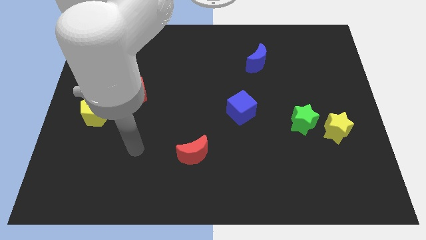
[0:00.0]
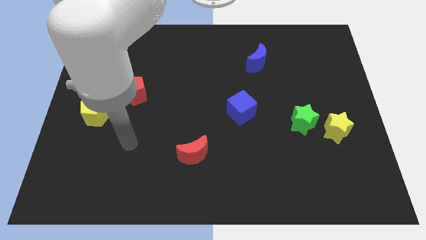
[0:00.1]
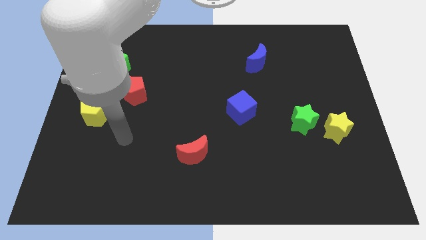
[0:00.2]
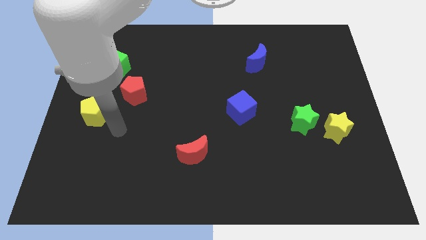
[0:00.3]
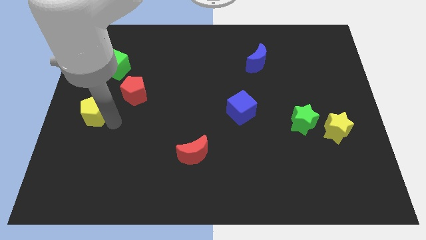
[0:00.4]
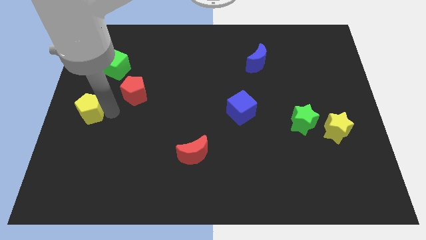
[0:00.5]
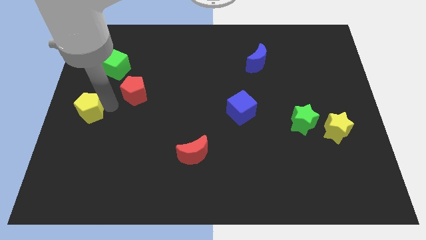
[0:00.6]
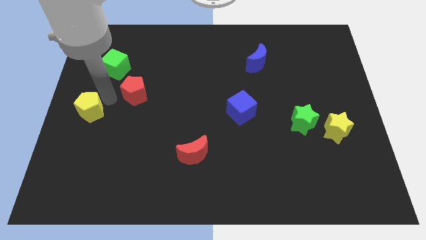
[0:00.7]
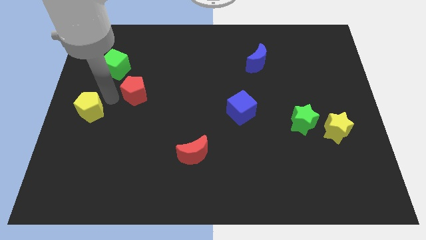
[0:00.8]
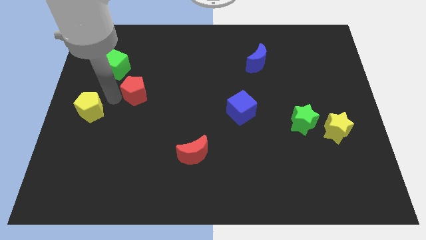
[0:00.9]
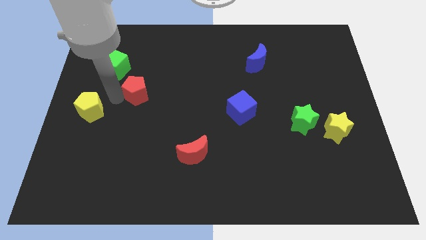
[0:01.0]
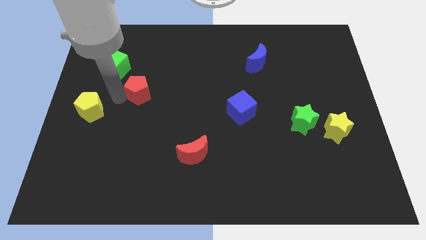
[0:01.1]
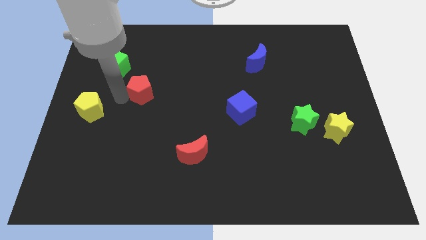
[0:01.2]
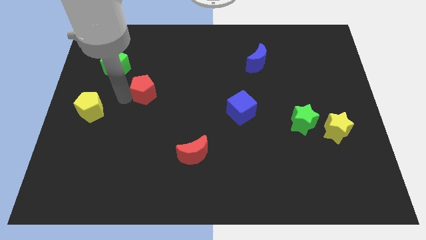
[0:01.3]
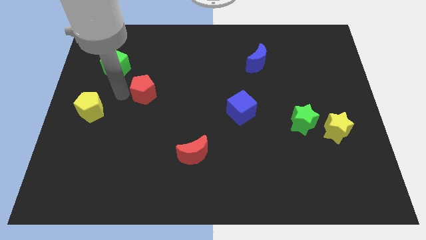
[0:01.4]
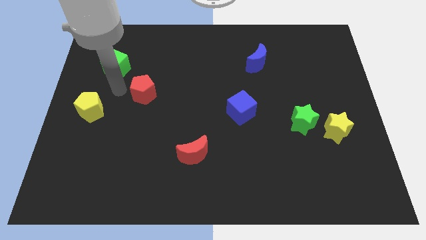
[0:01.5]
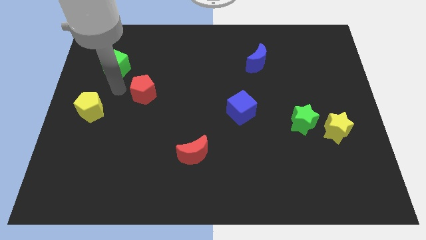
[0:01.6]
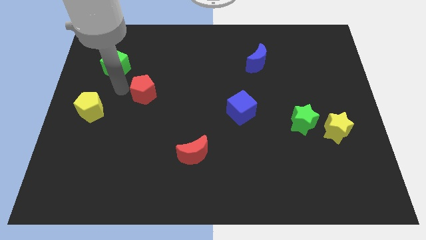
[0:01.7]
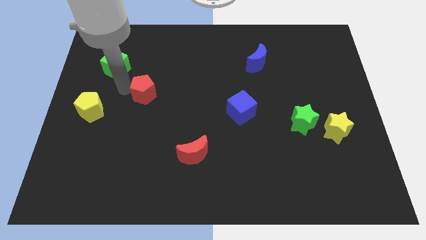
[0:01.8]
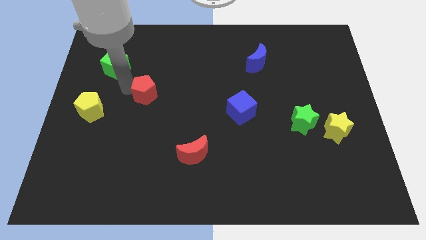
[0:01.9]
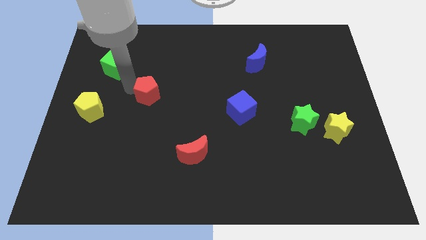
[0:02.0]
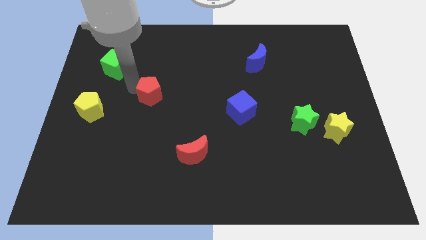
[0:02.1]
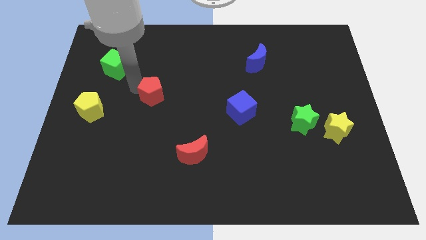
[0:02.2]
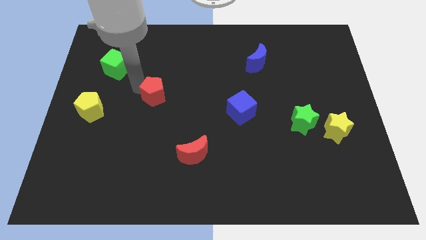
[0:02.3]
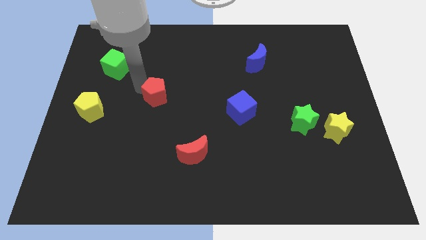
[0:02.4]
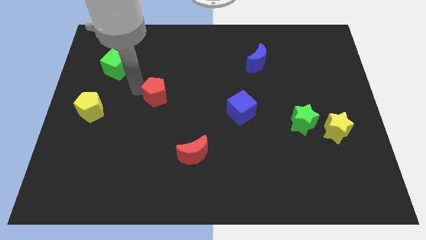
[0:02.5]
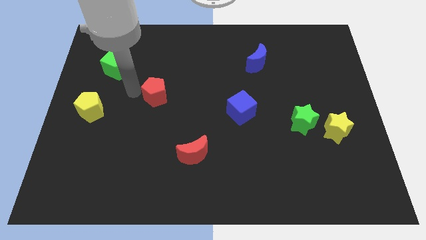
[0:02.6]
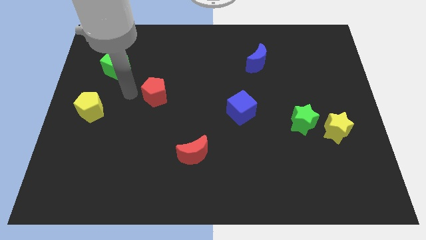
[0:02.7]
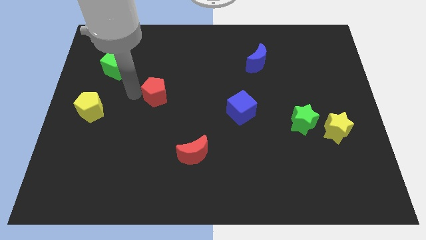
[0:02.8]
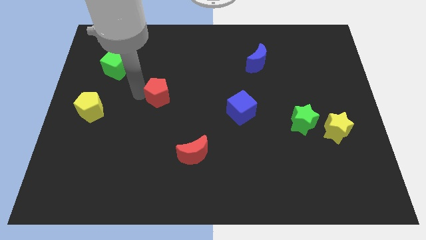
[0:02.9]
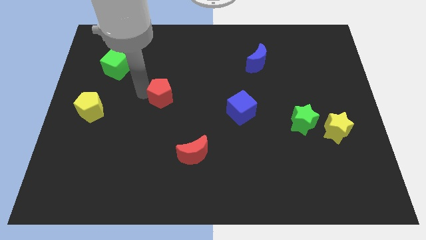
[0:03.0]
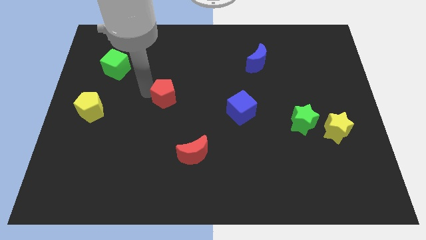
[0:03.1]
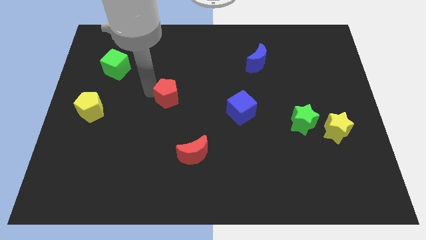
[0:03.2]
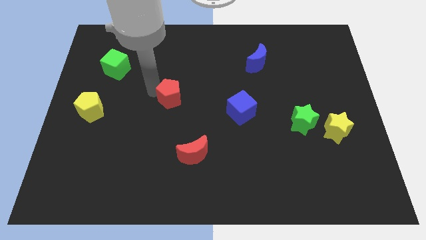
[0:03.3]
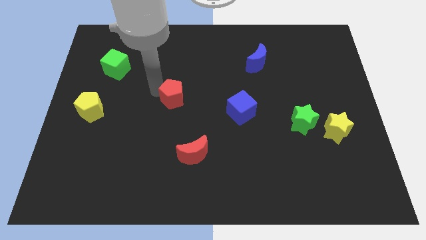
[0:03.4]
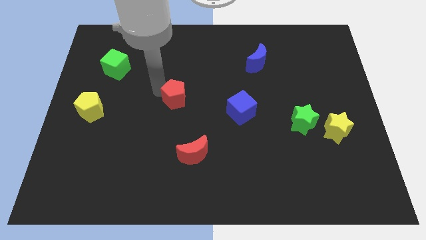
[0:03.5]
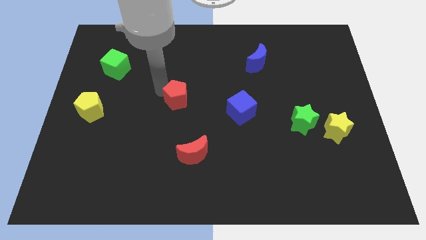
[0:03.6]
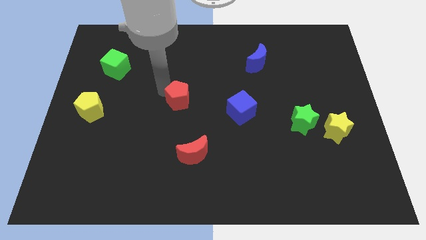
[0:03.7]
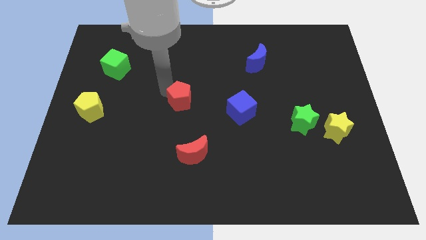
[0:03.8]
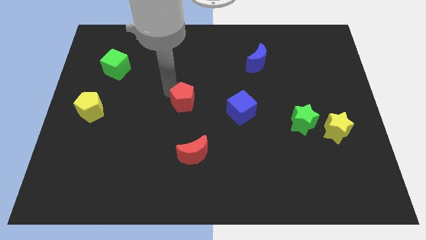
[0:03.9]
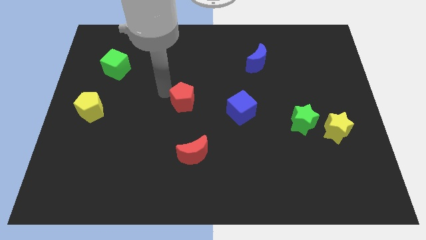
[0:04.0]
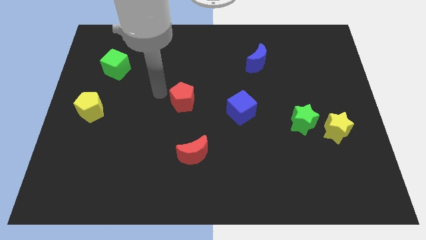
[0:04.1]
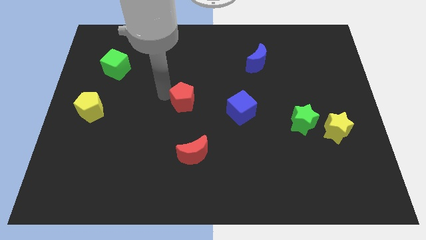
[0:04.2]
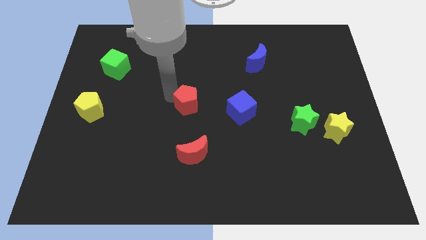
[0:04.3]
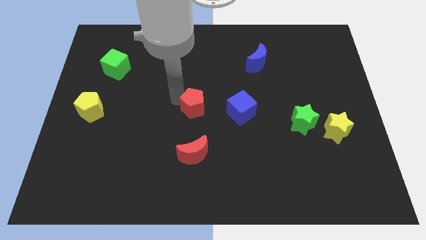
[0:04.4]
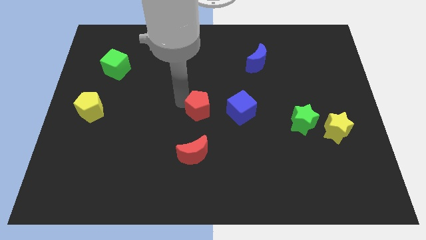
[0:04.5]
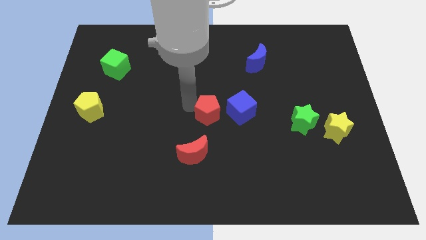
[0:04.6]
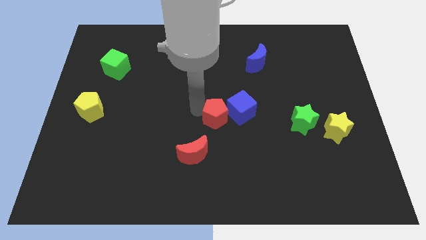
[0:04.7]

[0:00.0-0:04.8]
move the red pentagon next to the blue cube

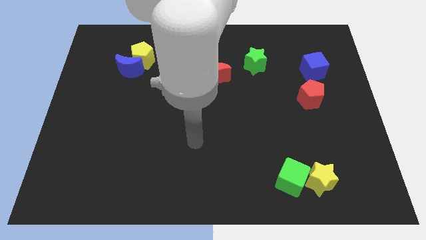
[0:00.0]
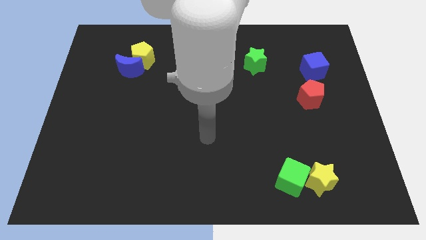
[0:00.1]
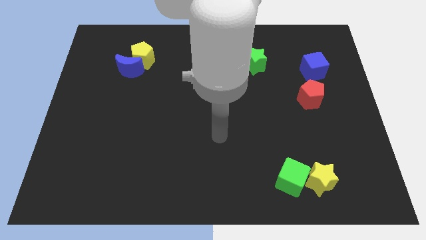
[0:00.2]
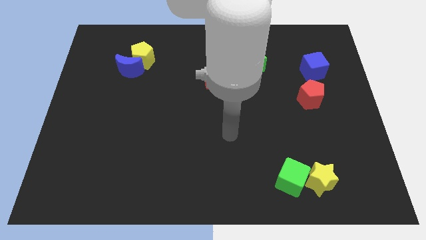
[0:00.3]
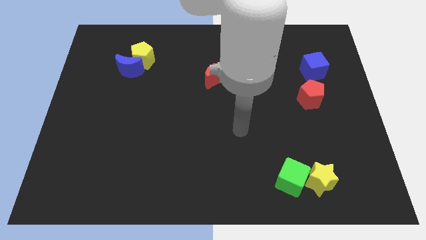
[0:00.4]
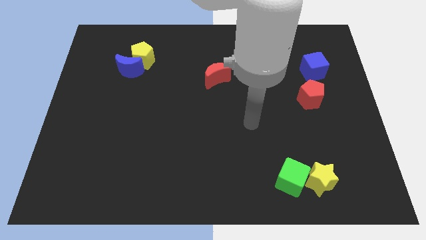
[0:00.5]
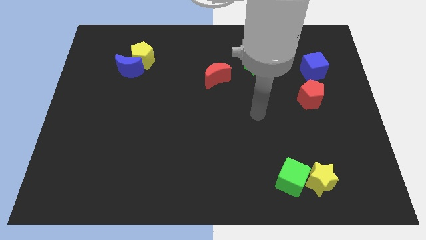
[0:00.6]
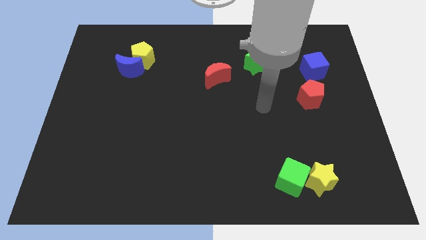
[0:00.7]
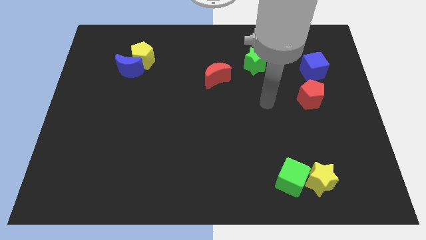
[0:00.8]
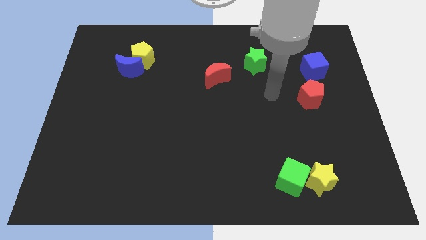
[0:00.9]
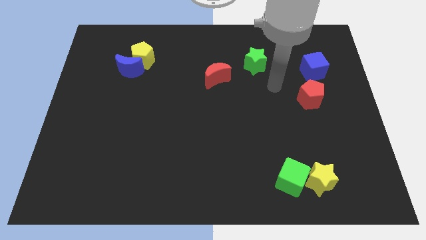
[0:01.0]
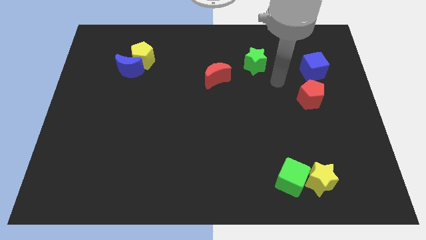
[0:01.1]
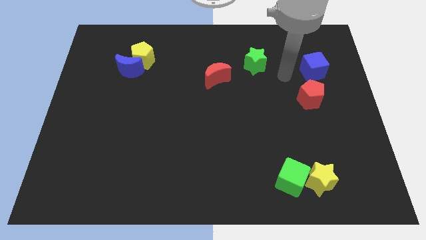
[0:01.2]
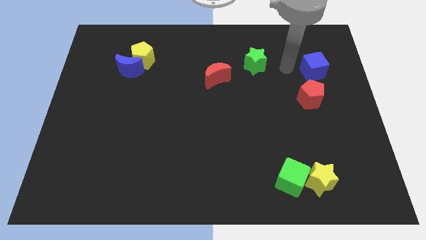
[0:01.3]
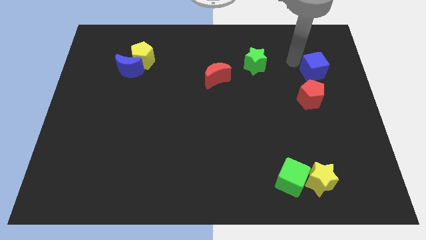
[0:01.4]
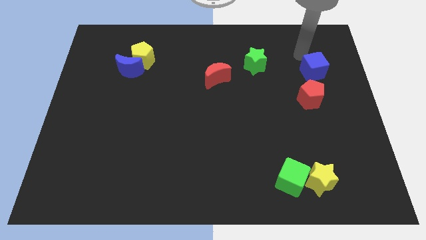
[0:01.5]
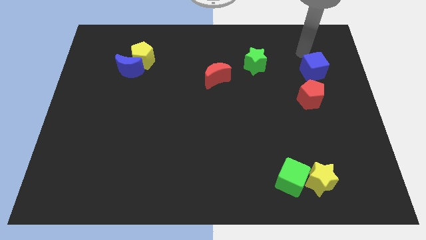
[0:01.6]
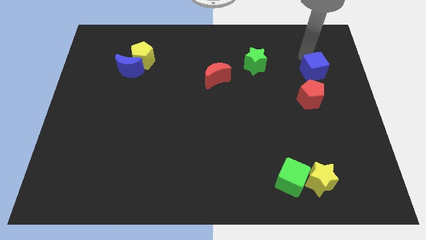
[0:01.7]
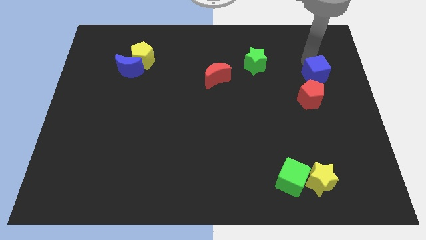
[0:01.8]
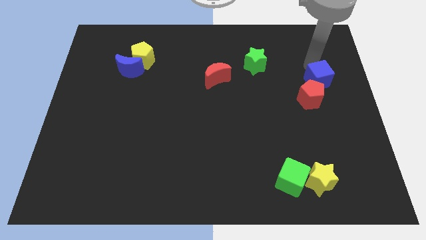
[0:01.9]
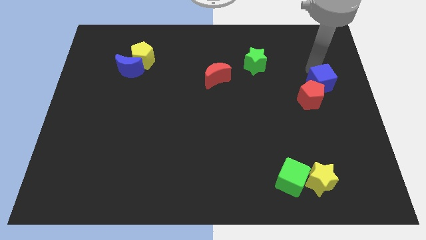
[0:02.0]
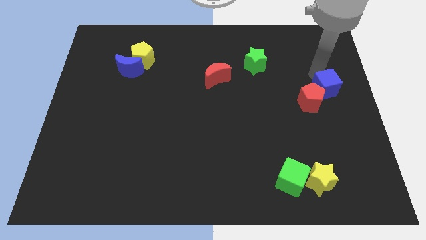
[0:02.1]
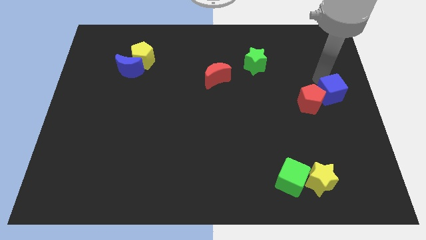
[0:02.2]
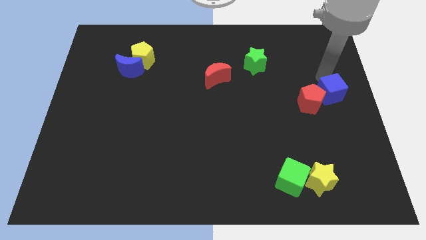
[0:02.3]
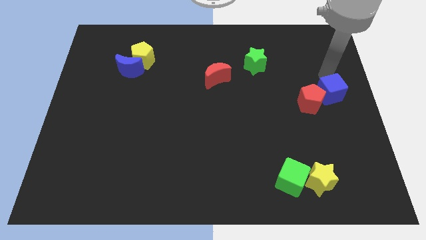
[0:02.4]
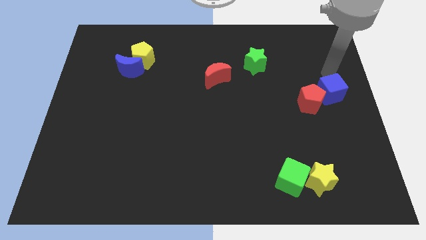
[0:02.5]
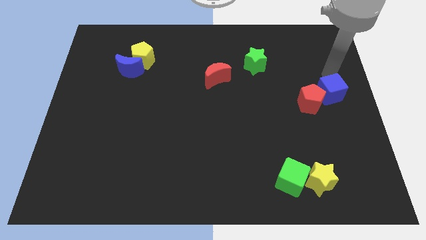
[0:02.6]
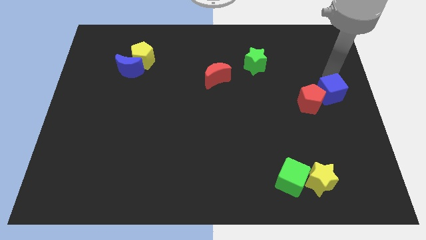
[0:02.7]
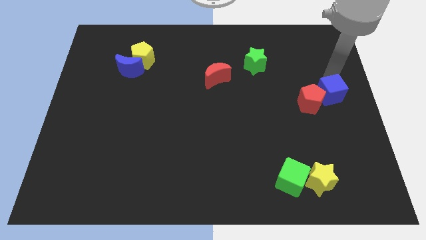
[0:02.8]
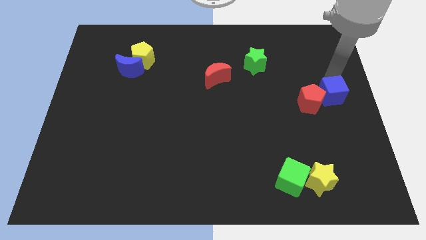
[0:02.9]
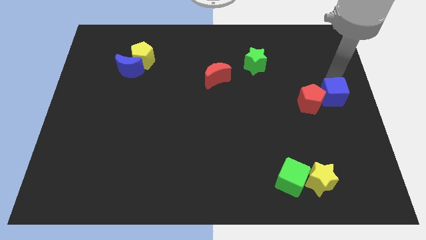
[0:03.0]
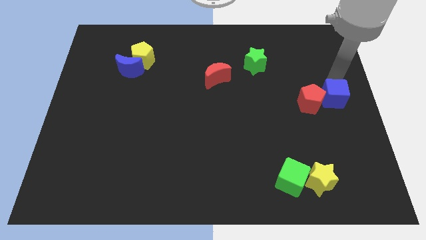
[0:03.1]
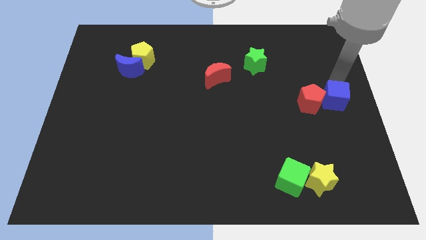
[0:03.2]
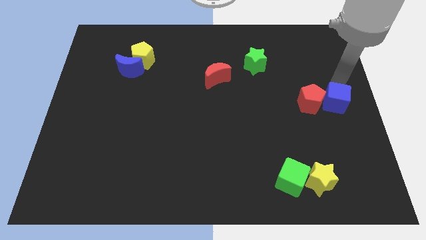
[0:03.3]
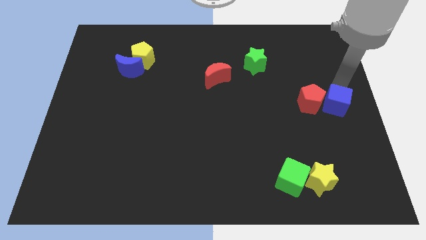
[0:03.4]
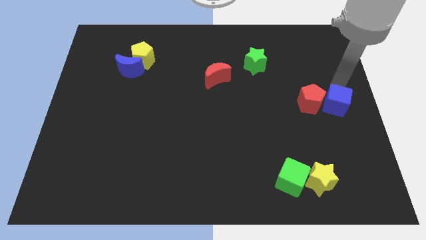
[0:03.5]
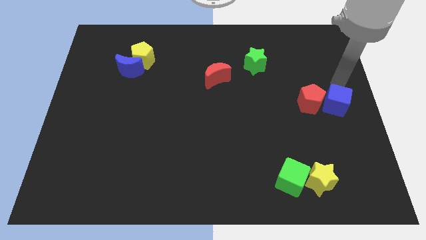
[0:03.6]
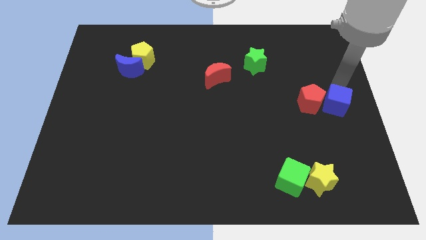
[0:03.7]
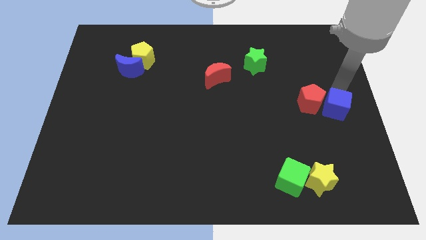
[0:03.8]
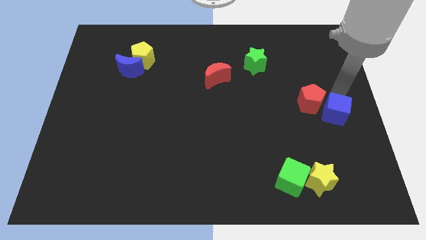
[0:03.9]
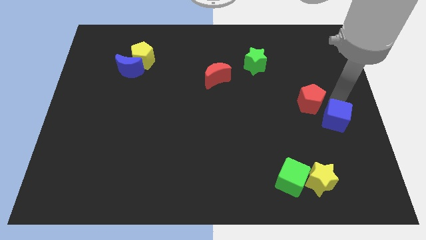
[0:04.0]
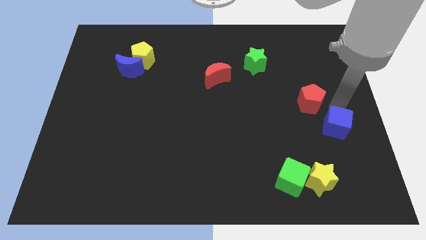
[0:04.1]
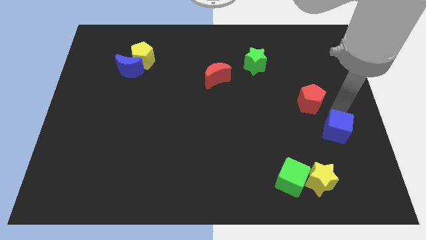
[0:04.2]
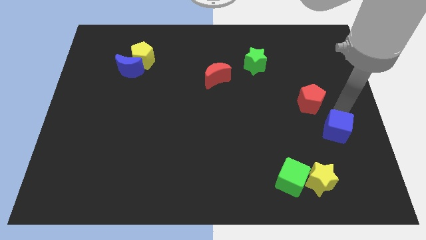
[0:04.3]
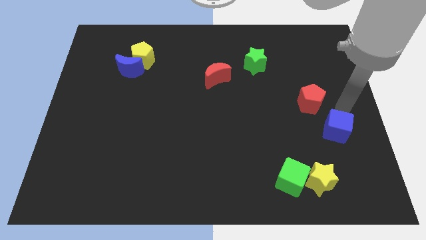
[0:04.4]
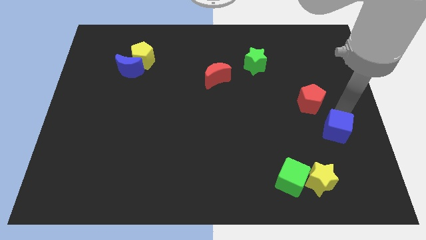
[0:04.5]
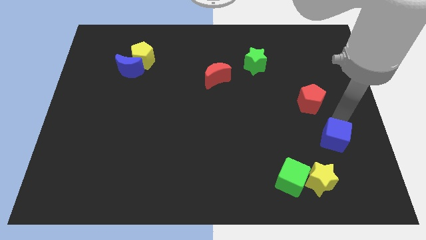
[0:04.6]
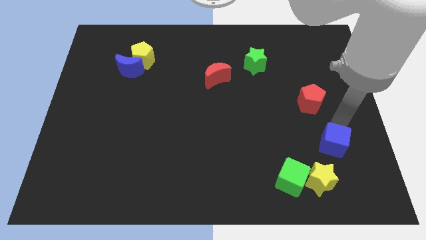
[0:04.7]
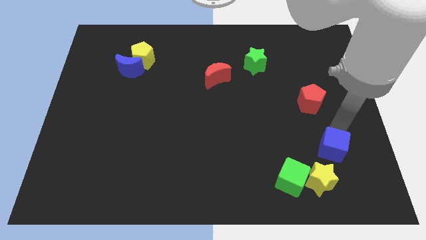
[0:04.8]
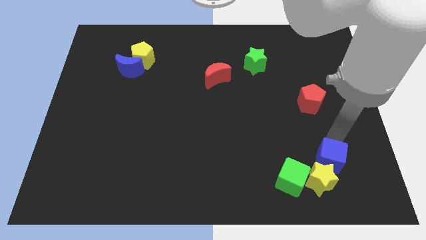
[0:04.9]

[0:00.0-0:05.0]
push the blue cube next to the yellow star
